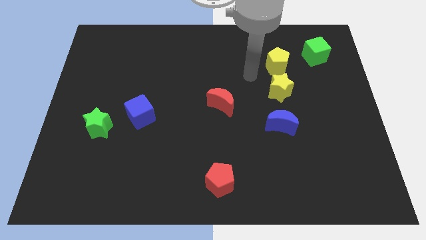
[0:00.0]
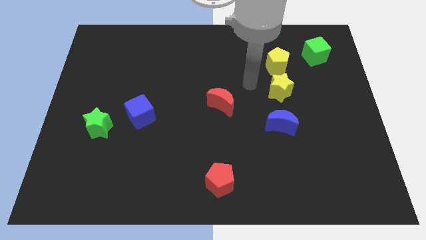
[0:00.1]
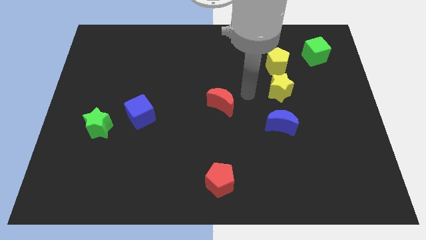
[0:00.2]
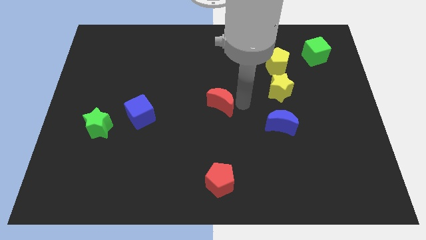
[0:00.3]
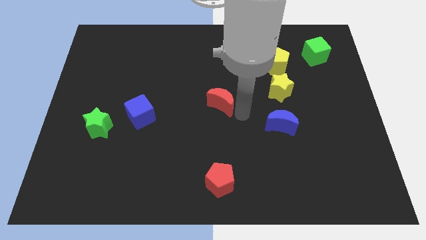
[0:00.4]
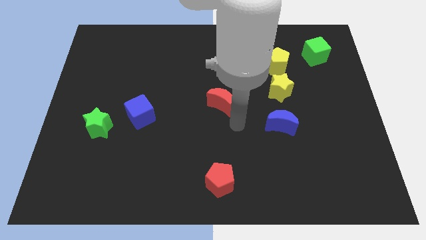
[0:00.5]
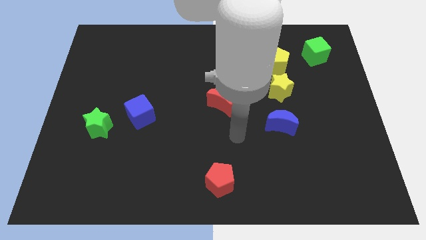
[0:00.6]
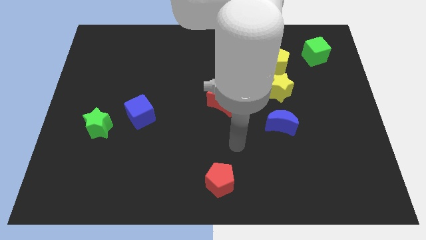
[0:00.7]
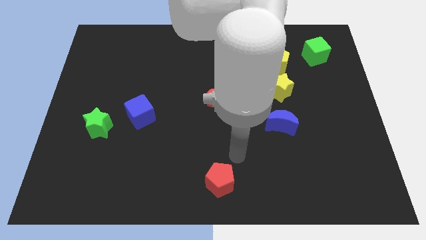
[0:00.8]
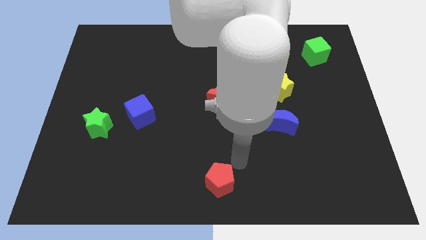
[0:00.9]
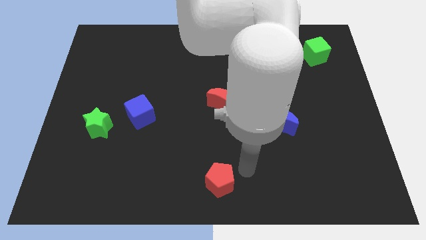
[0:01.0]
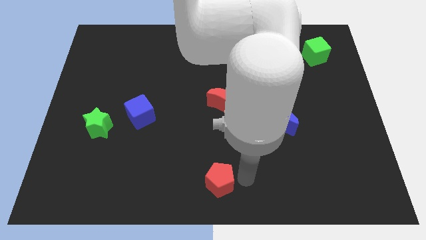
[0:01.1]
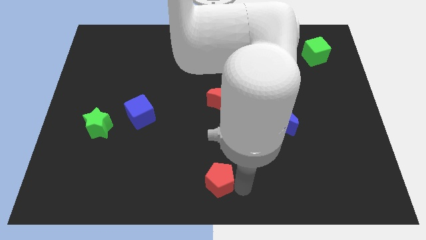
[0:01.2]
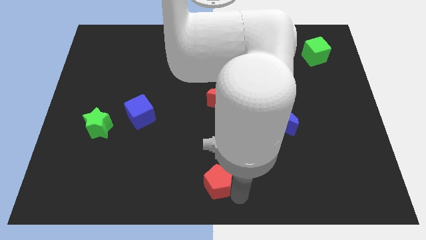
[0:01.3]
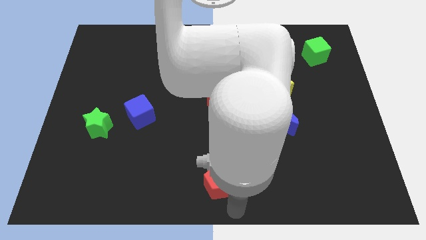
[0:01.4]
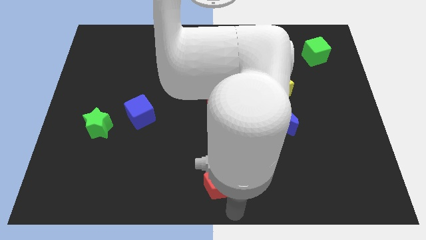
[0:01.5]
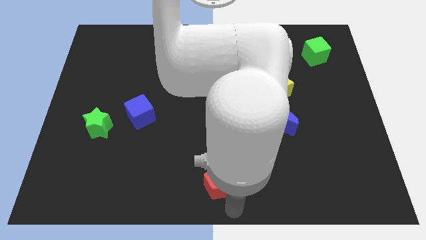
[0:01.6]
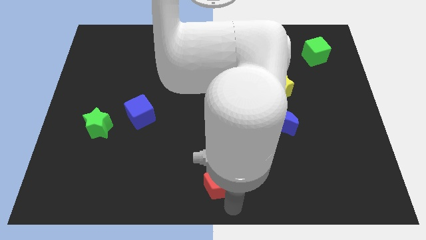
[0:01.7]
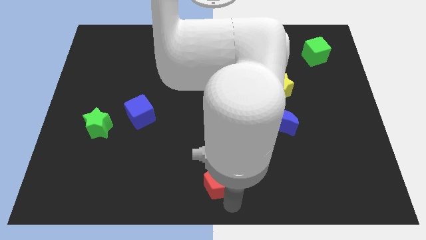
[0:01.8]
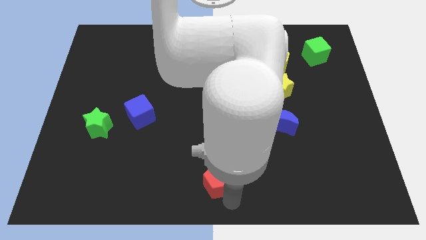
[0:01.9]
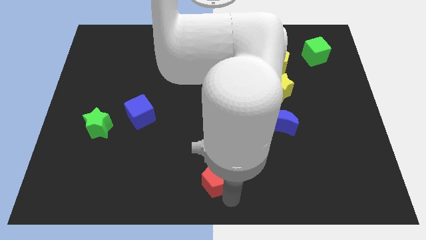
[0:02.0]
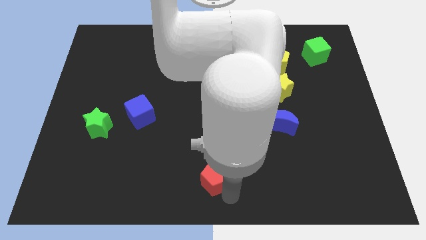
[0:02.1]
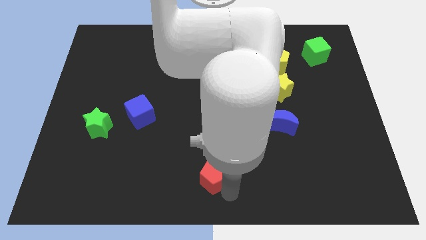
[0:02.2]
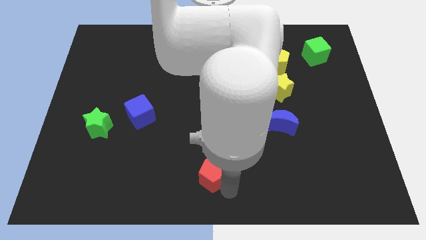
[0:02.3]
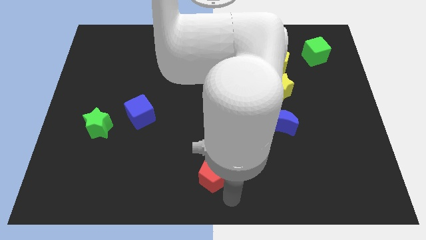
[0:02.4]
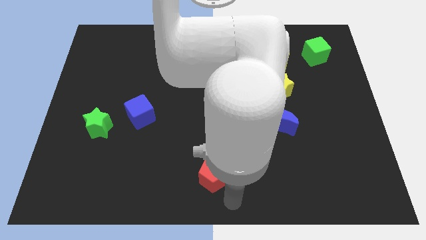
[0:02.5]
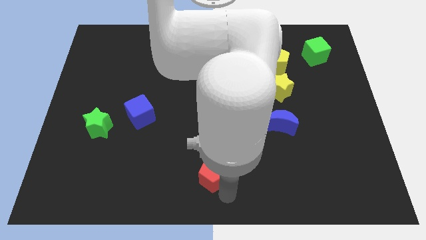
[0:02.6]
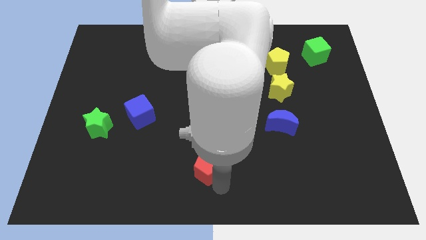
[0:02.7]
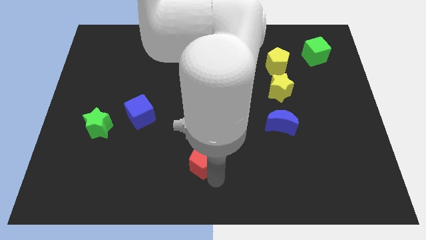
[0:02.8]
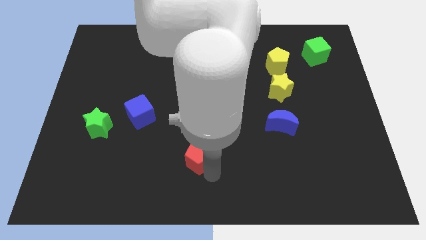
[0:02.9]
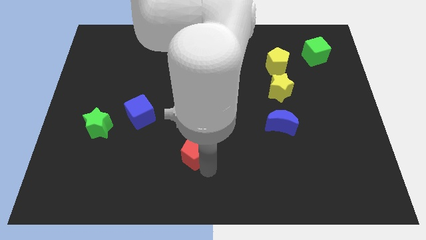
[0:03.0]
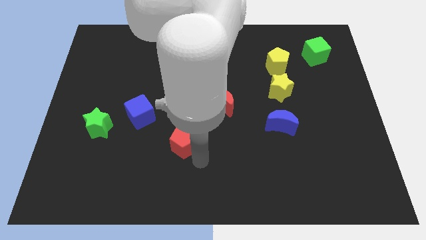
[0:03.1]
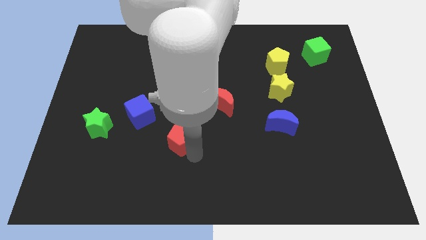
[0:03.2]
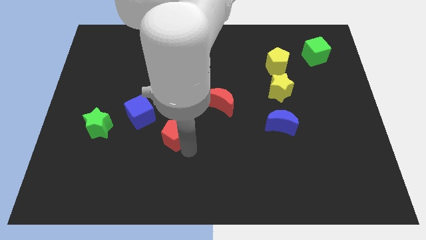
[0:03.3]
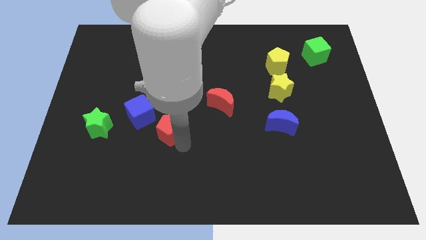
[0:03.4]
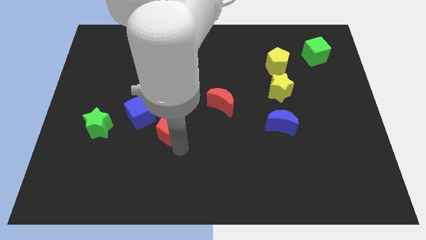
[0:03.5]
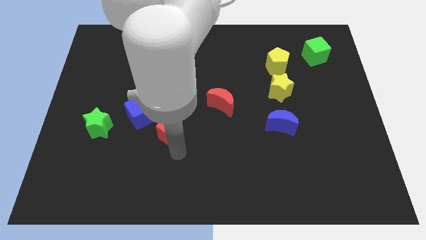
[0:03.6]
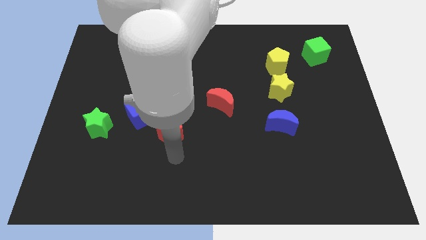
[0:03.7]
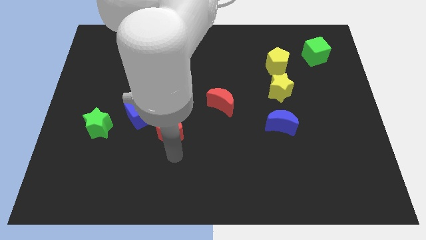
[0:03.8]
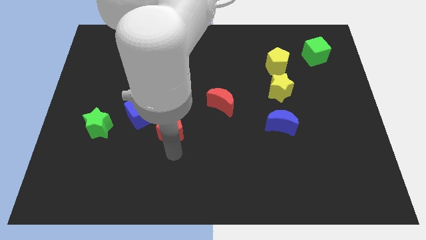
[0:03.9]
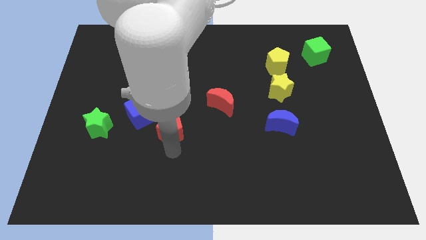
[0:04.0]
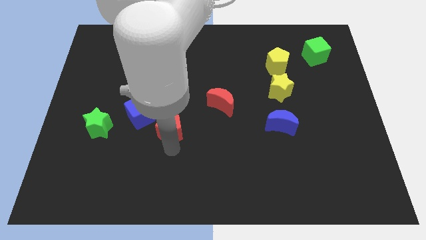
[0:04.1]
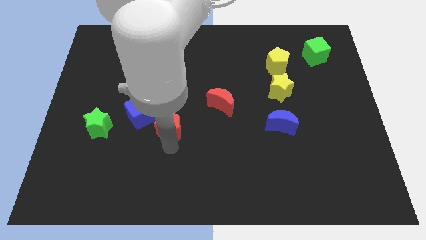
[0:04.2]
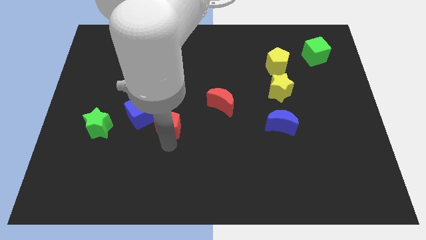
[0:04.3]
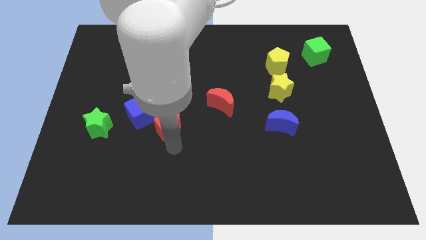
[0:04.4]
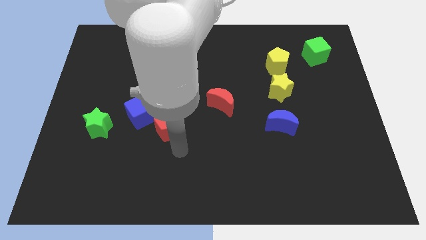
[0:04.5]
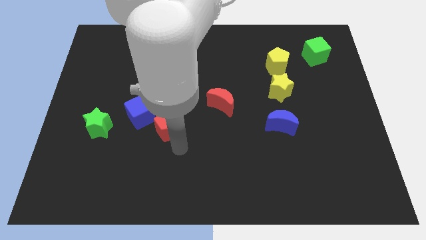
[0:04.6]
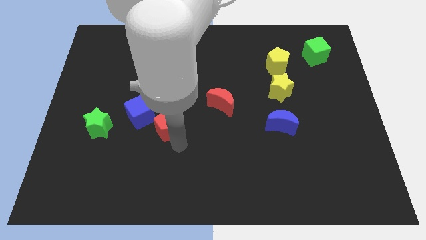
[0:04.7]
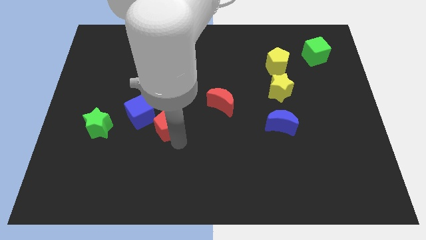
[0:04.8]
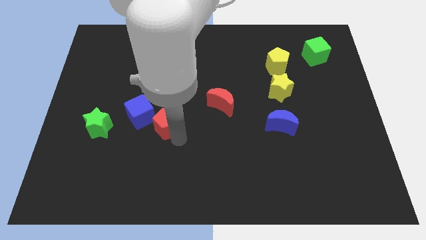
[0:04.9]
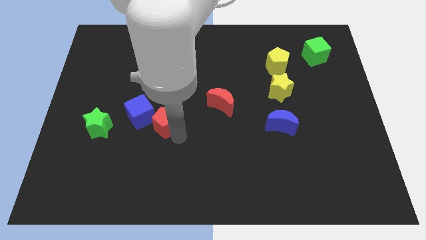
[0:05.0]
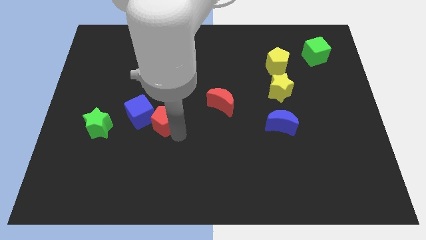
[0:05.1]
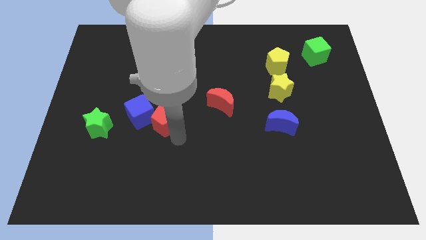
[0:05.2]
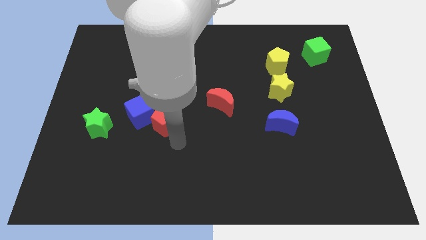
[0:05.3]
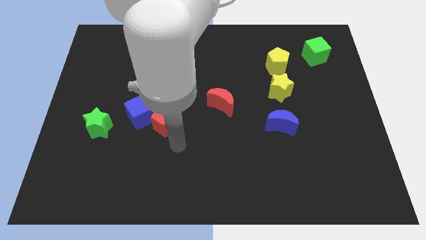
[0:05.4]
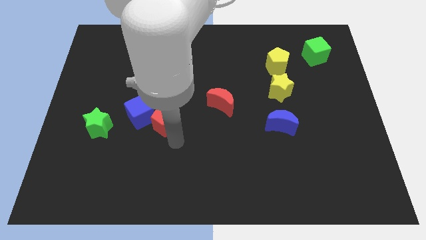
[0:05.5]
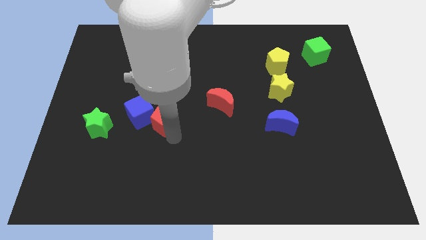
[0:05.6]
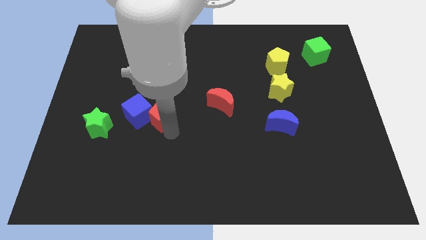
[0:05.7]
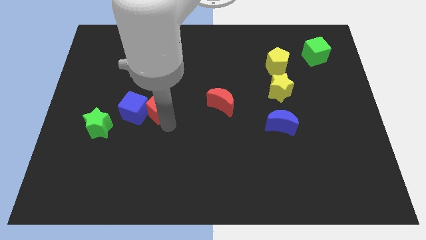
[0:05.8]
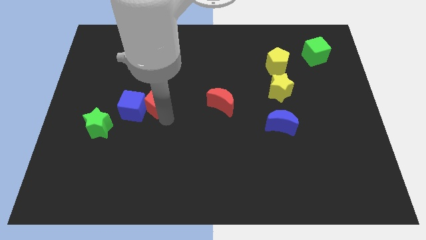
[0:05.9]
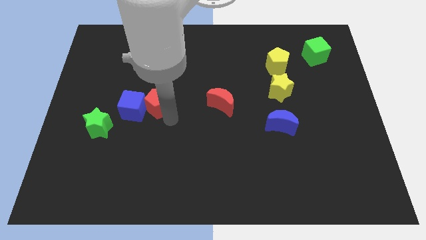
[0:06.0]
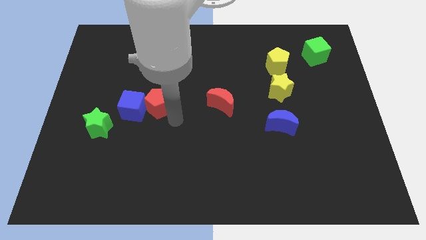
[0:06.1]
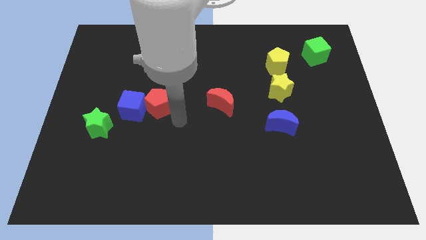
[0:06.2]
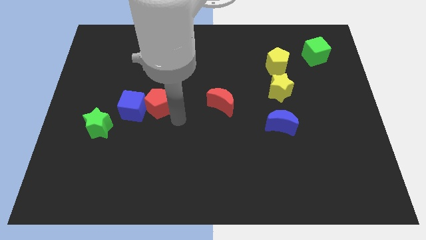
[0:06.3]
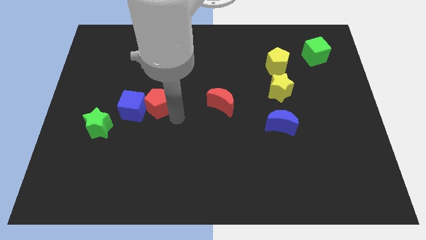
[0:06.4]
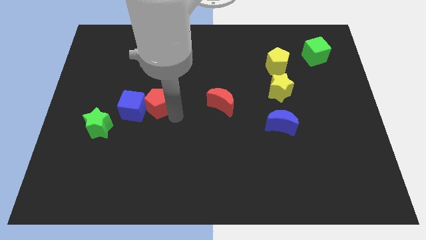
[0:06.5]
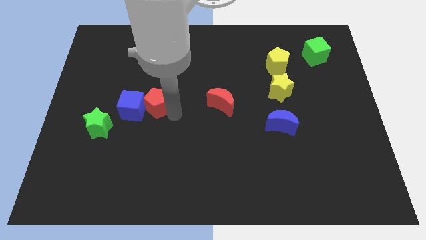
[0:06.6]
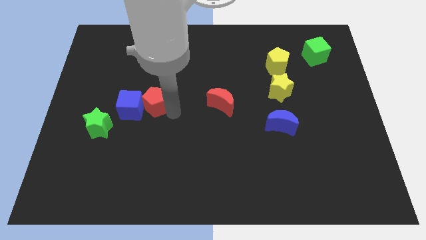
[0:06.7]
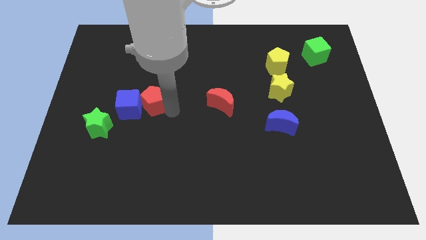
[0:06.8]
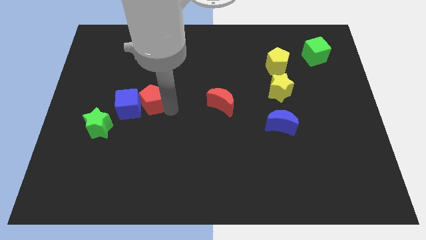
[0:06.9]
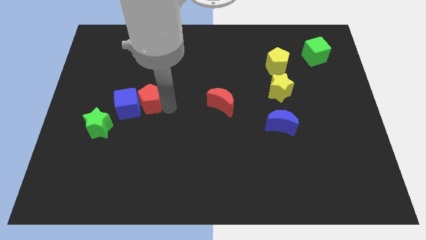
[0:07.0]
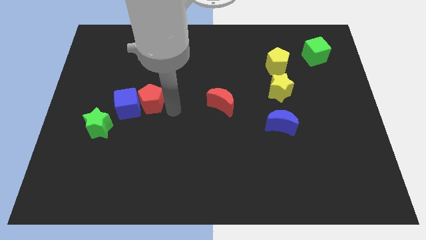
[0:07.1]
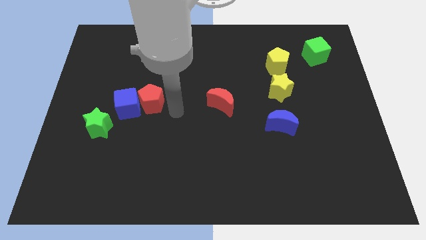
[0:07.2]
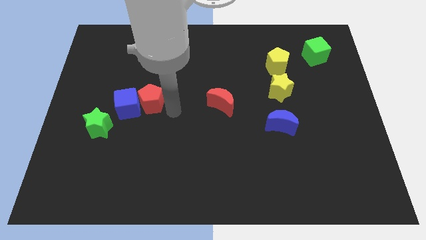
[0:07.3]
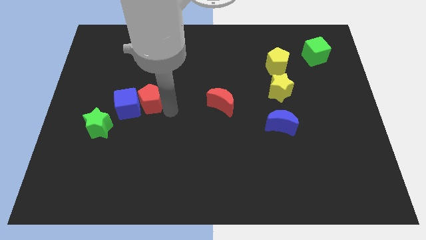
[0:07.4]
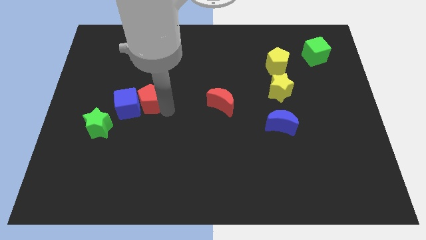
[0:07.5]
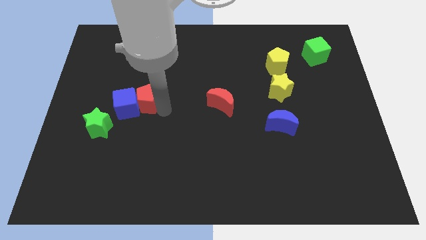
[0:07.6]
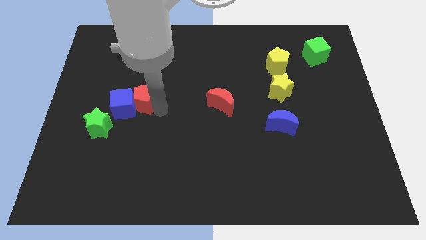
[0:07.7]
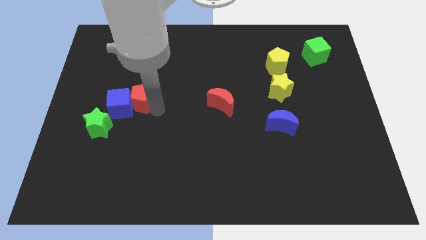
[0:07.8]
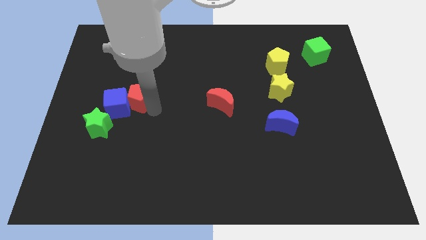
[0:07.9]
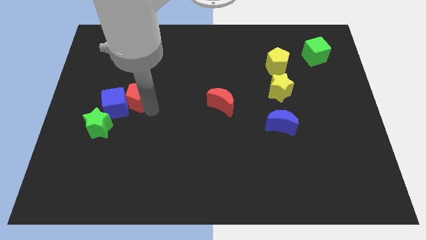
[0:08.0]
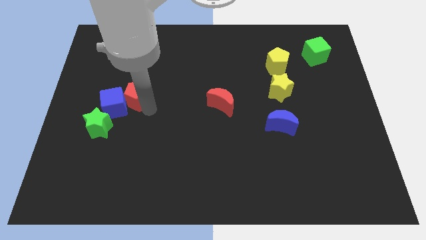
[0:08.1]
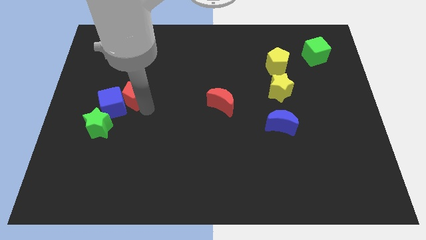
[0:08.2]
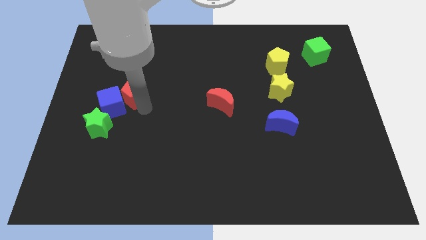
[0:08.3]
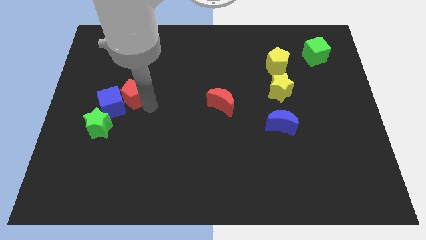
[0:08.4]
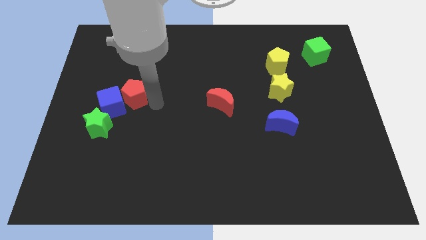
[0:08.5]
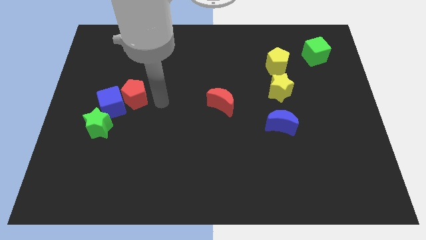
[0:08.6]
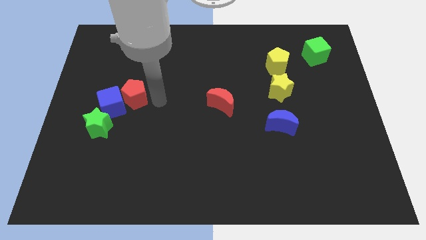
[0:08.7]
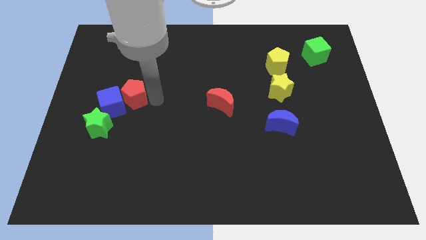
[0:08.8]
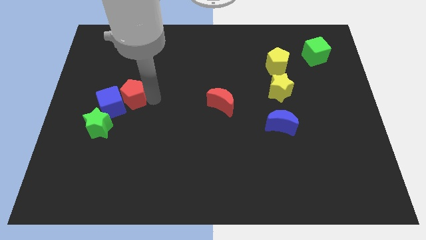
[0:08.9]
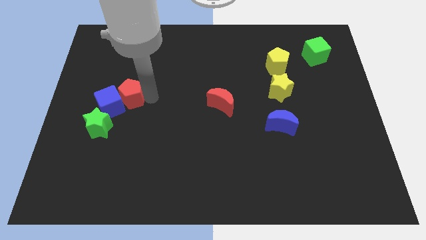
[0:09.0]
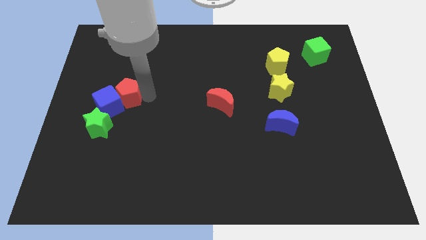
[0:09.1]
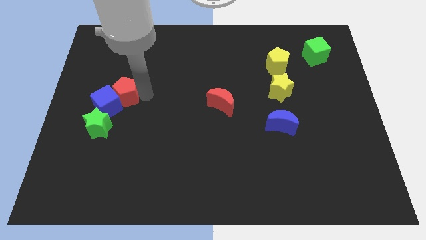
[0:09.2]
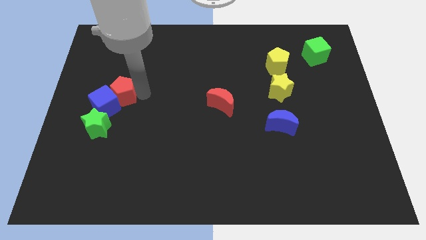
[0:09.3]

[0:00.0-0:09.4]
put the red pentagon to the top side of the green star
